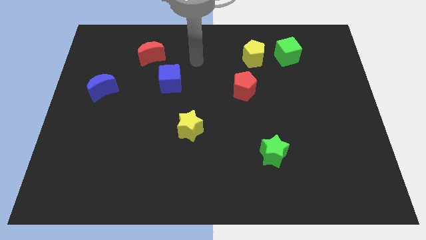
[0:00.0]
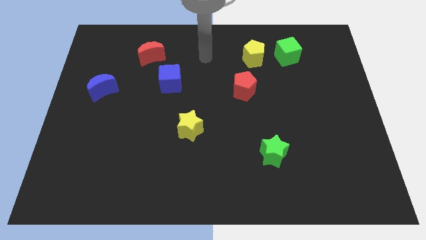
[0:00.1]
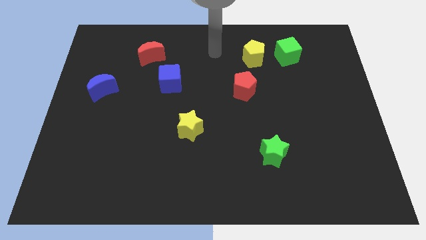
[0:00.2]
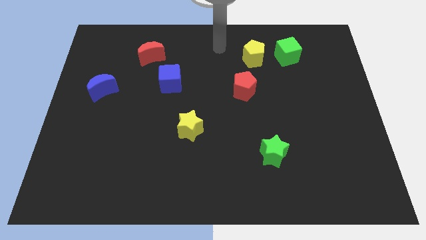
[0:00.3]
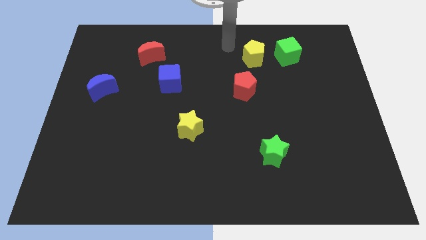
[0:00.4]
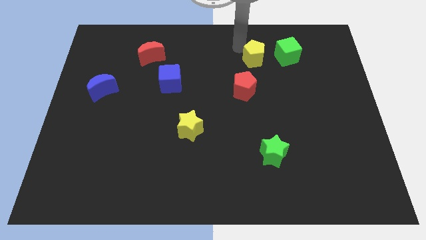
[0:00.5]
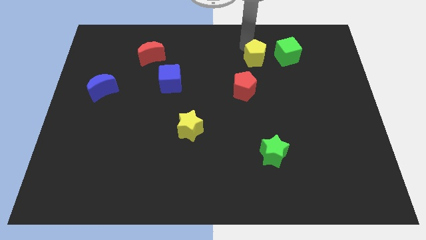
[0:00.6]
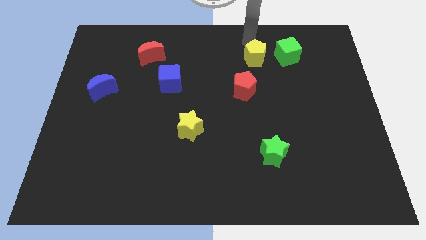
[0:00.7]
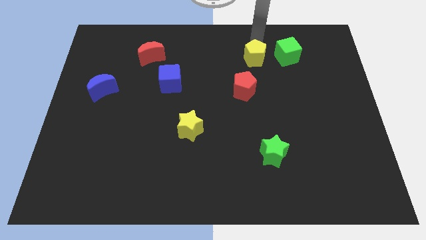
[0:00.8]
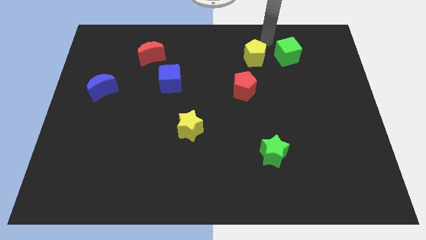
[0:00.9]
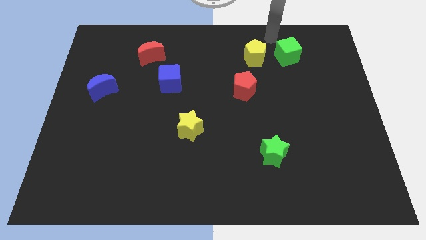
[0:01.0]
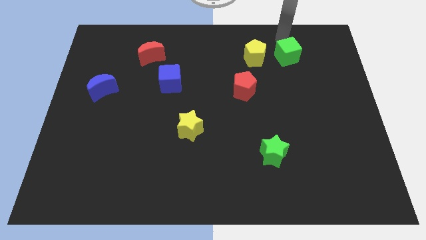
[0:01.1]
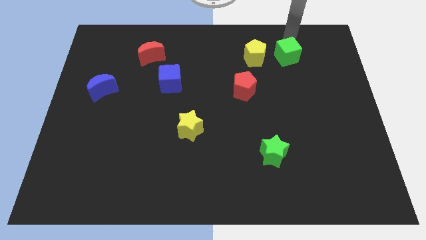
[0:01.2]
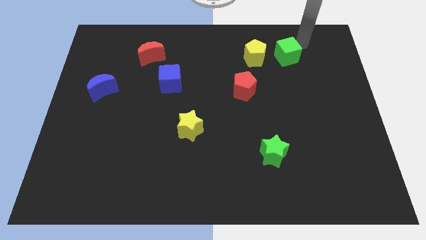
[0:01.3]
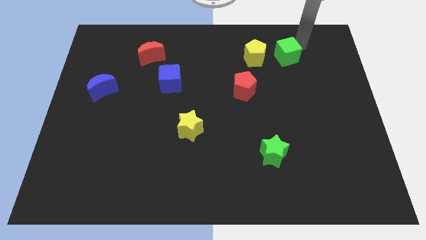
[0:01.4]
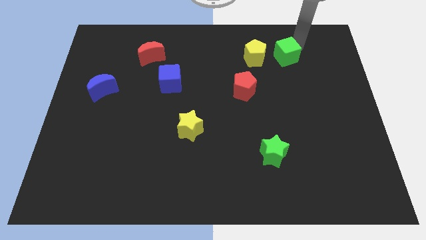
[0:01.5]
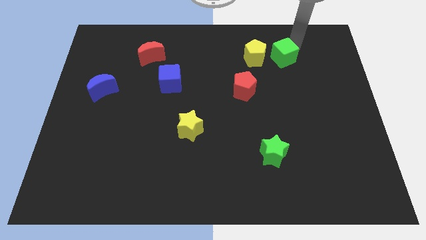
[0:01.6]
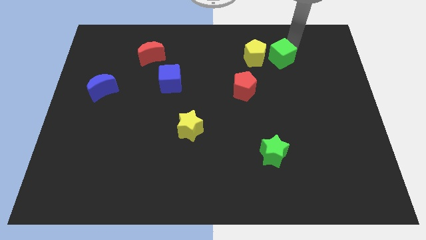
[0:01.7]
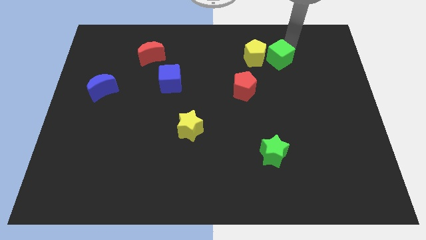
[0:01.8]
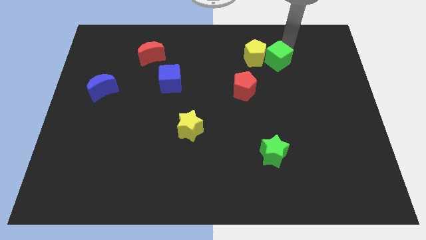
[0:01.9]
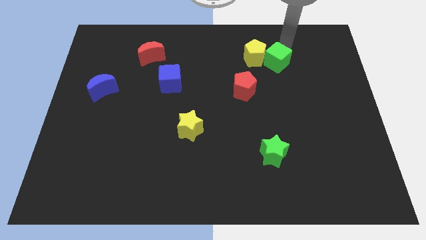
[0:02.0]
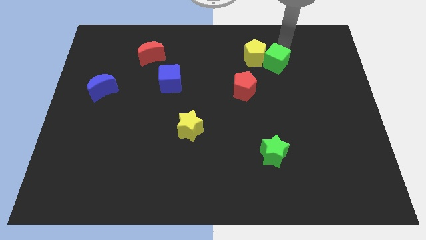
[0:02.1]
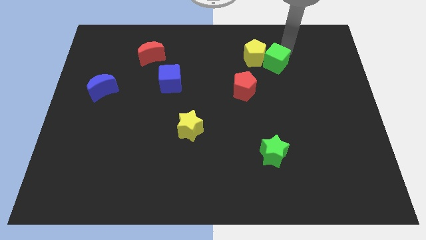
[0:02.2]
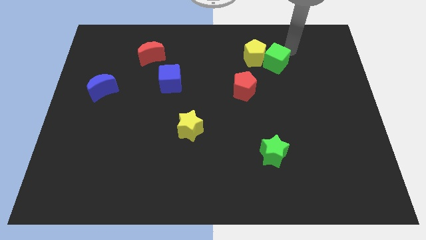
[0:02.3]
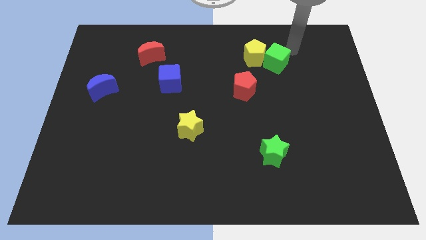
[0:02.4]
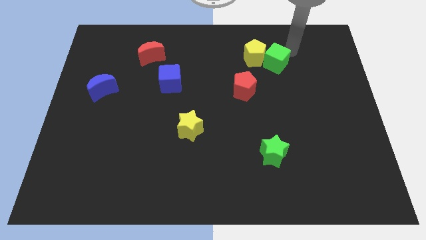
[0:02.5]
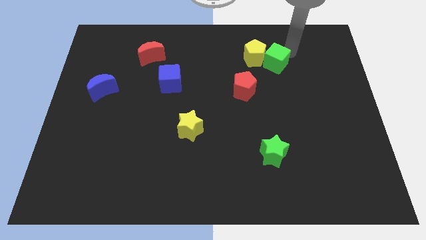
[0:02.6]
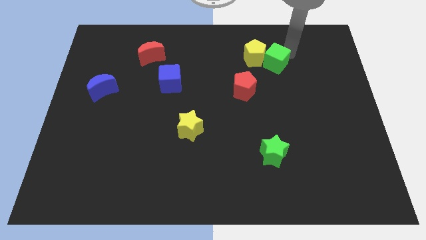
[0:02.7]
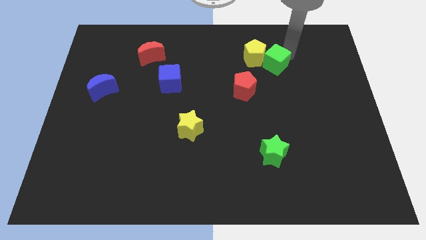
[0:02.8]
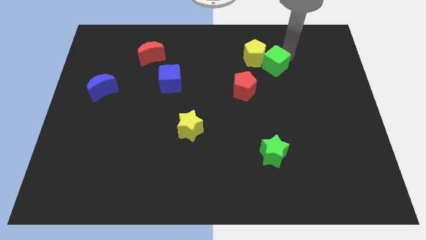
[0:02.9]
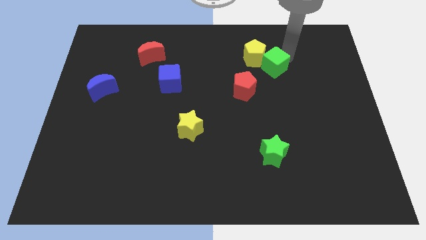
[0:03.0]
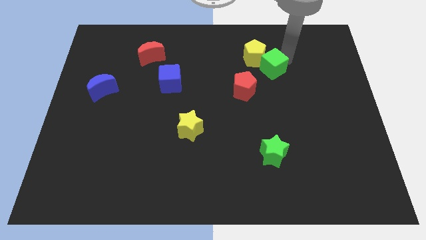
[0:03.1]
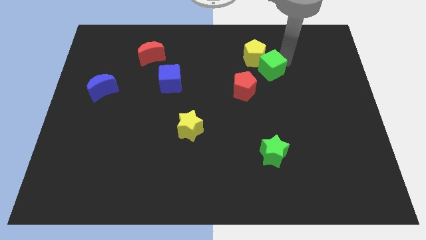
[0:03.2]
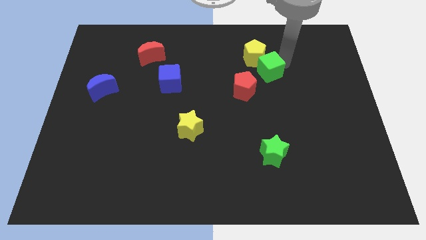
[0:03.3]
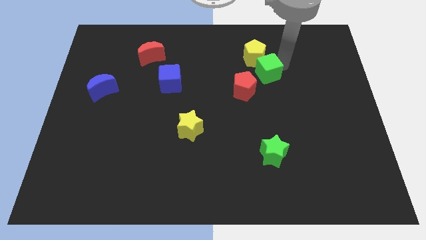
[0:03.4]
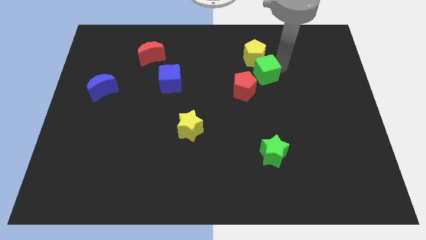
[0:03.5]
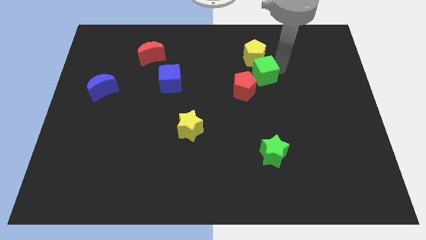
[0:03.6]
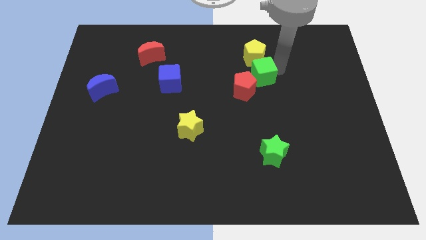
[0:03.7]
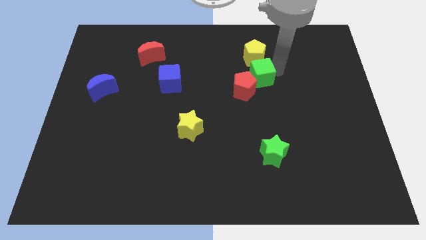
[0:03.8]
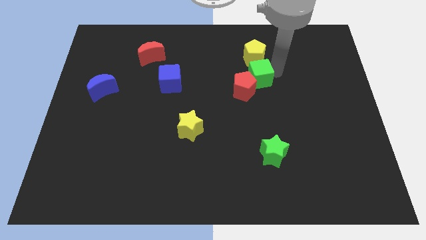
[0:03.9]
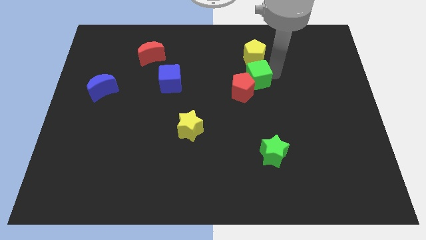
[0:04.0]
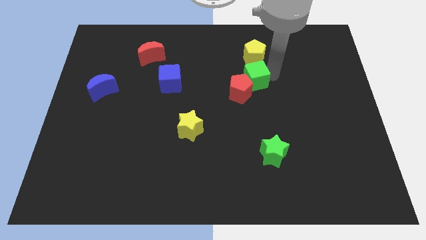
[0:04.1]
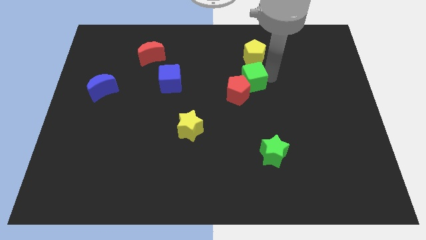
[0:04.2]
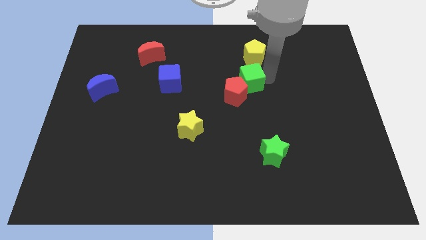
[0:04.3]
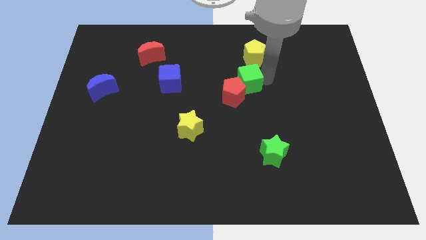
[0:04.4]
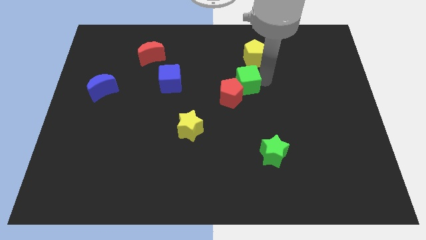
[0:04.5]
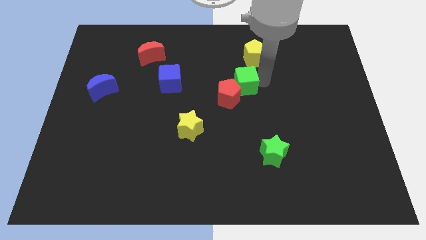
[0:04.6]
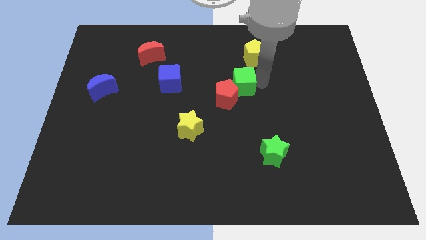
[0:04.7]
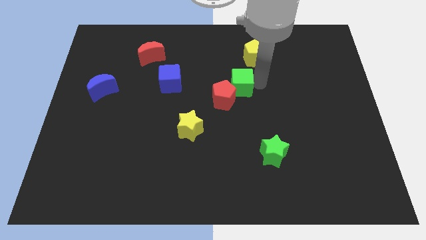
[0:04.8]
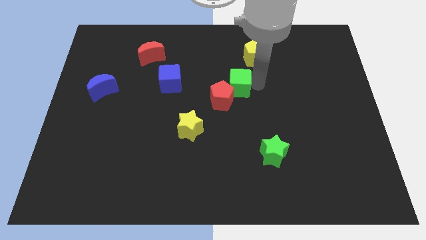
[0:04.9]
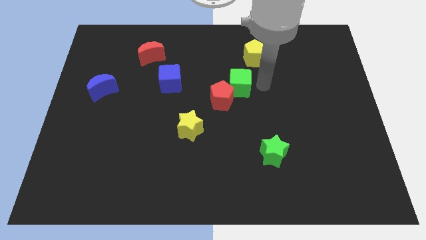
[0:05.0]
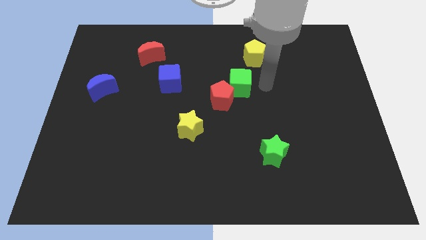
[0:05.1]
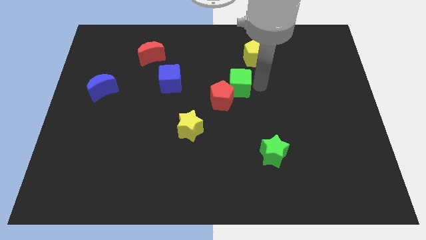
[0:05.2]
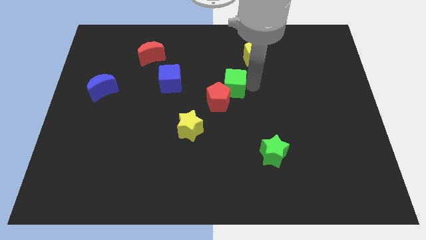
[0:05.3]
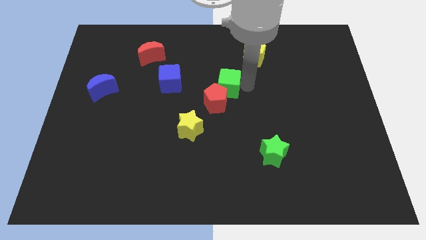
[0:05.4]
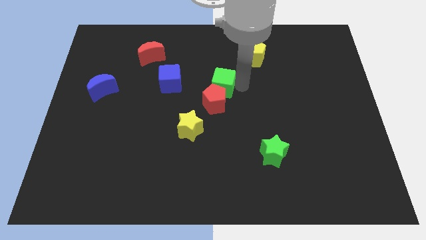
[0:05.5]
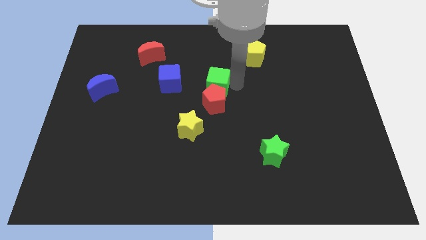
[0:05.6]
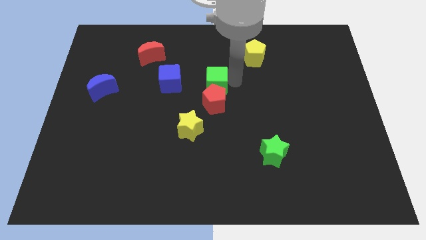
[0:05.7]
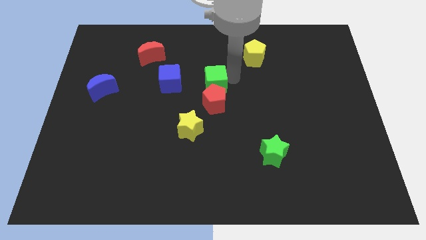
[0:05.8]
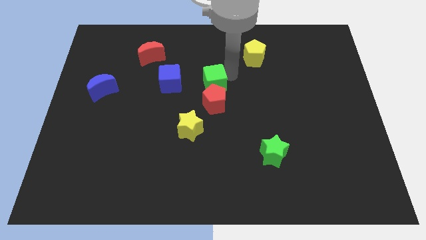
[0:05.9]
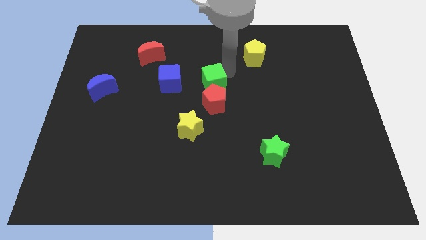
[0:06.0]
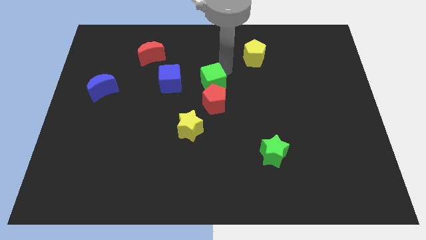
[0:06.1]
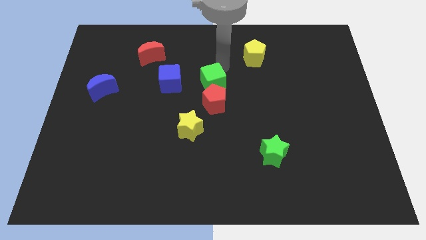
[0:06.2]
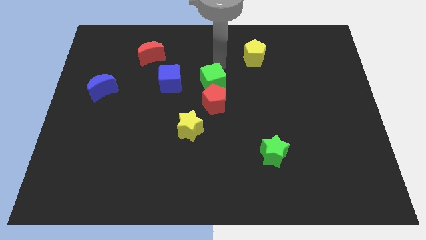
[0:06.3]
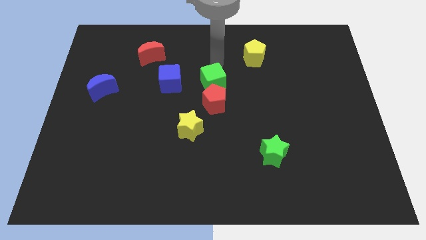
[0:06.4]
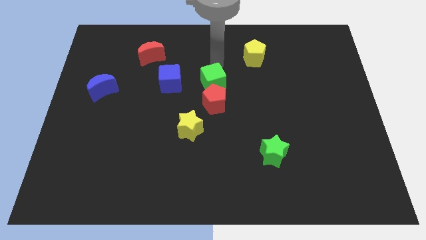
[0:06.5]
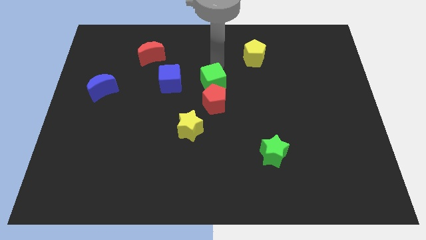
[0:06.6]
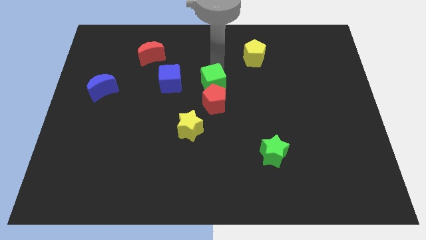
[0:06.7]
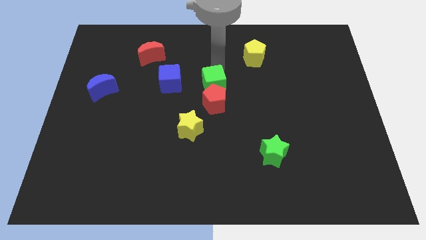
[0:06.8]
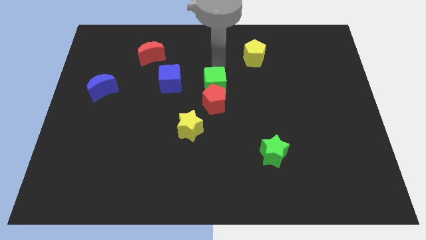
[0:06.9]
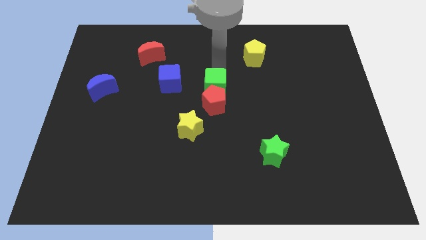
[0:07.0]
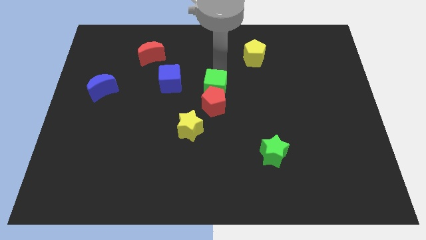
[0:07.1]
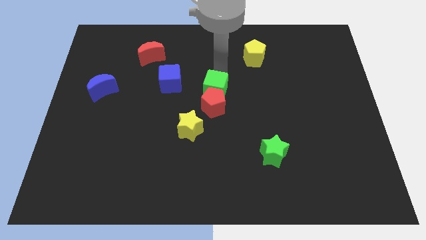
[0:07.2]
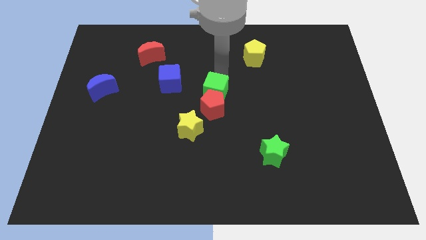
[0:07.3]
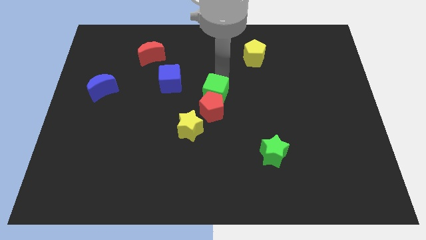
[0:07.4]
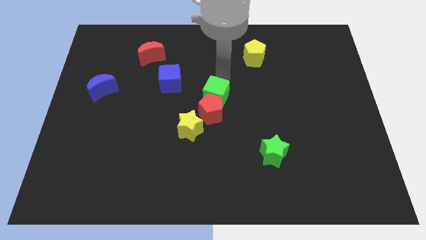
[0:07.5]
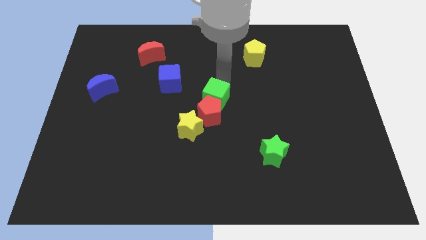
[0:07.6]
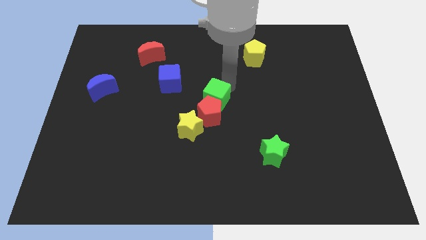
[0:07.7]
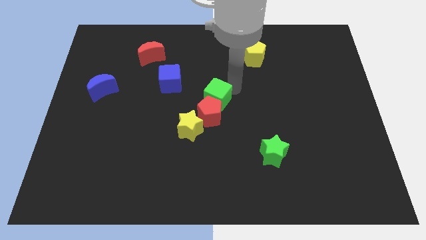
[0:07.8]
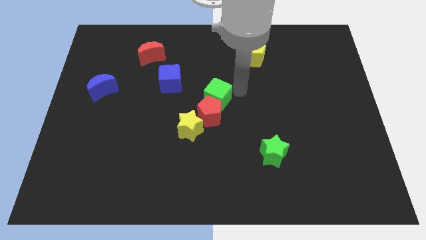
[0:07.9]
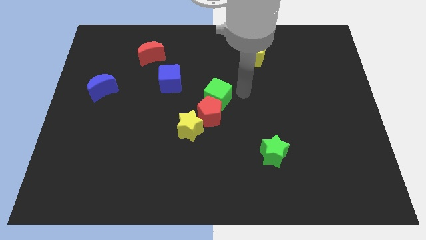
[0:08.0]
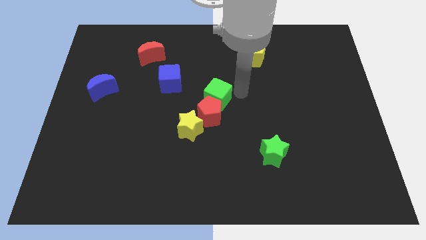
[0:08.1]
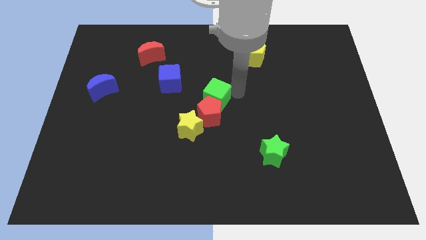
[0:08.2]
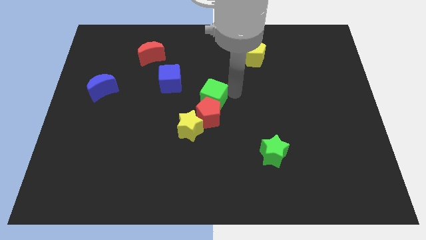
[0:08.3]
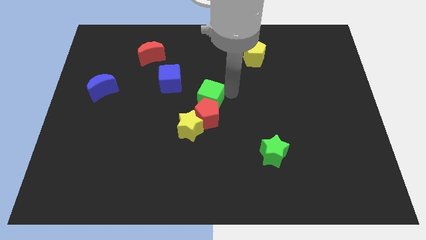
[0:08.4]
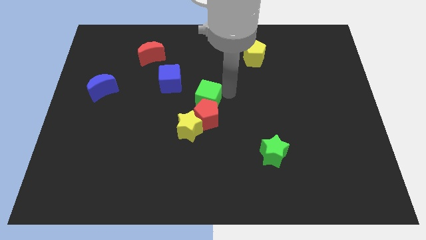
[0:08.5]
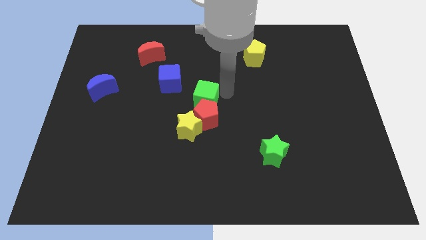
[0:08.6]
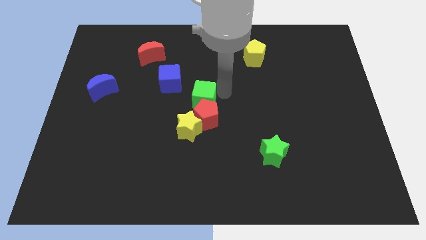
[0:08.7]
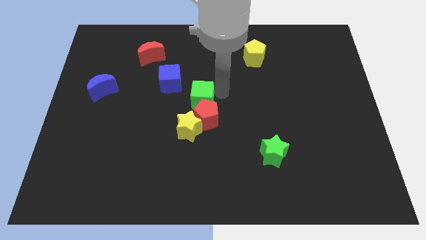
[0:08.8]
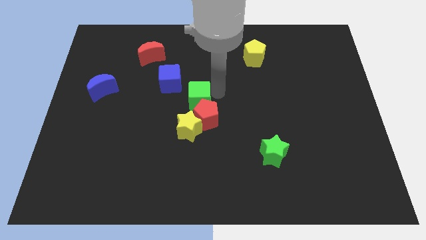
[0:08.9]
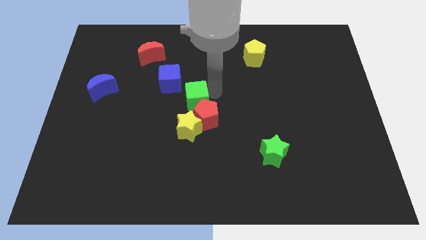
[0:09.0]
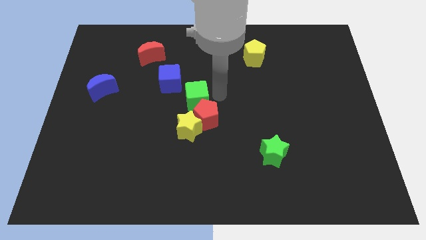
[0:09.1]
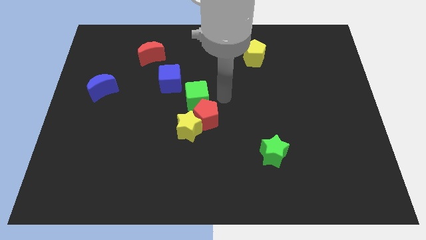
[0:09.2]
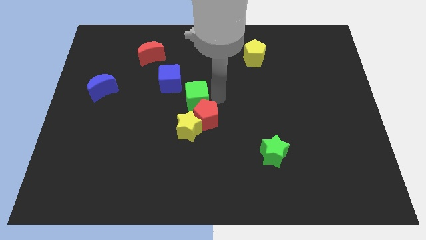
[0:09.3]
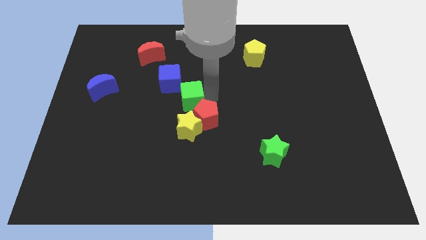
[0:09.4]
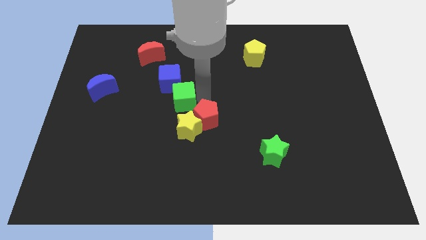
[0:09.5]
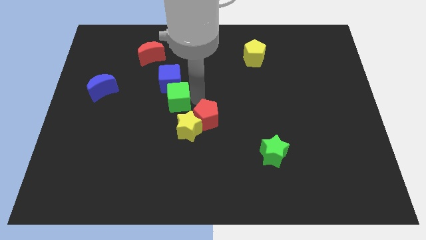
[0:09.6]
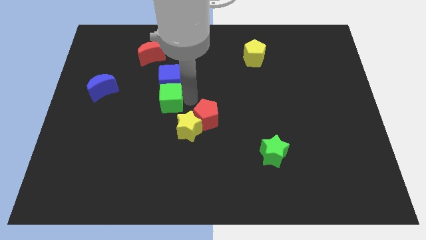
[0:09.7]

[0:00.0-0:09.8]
slide the green cube to the bottom left side of the blue cube
